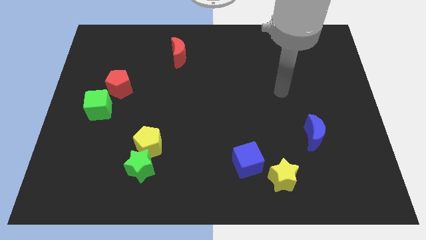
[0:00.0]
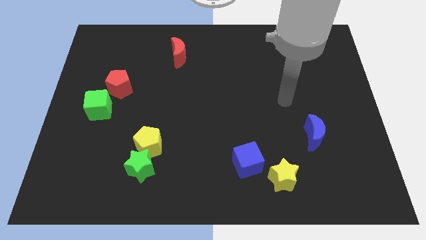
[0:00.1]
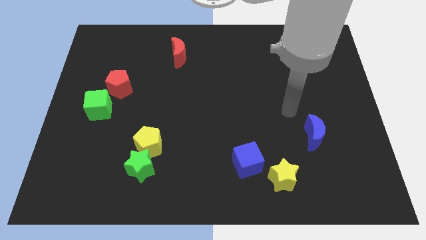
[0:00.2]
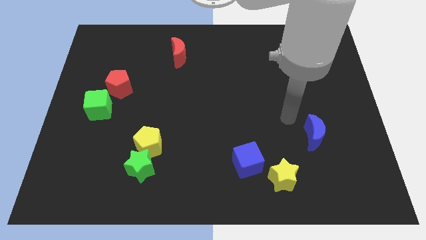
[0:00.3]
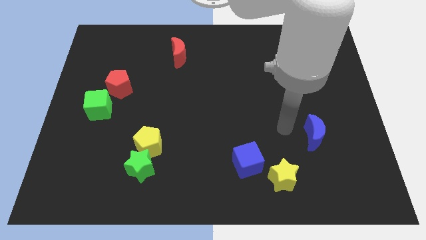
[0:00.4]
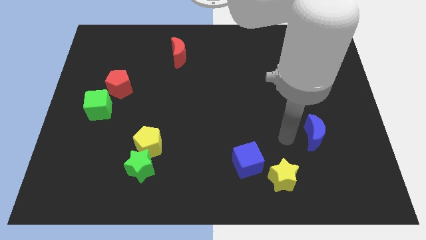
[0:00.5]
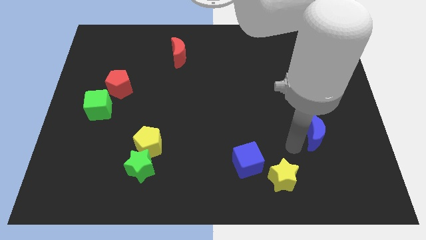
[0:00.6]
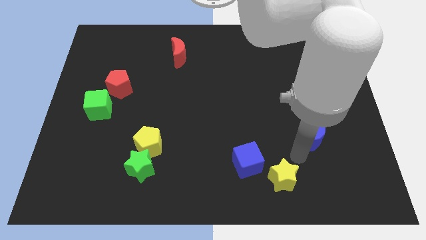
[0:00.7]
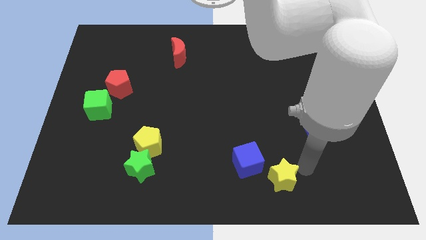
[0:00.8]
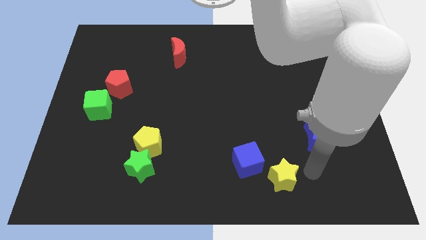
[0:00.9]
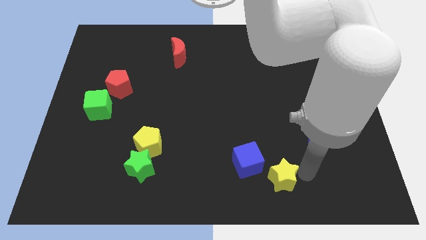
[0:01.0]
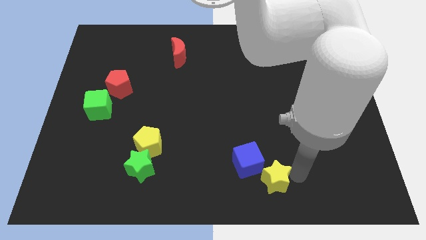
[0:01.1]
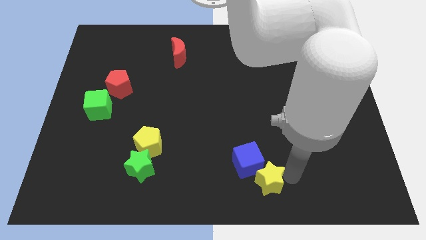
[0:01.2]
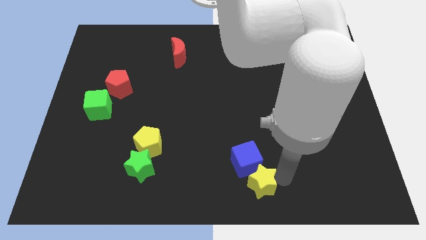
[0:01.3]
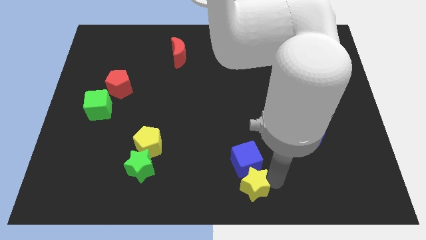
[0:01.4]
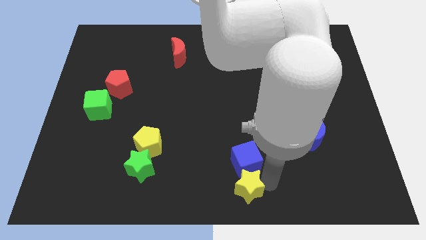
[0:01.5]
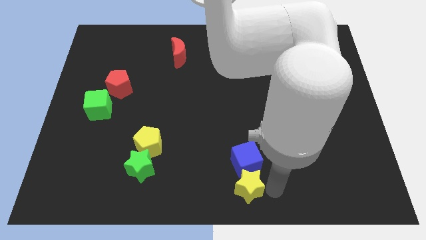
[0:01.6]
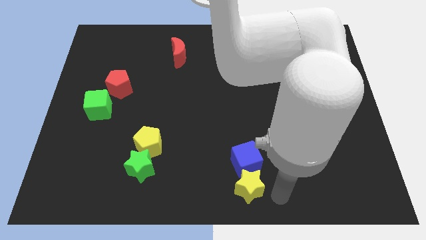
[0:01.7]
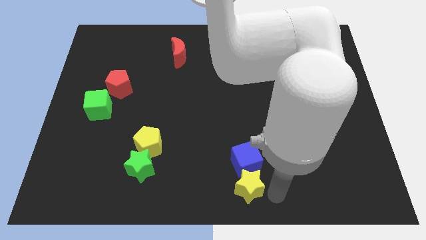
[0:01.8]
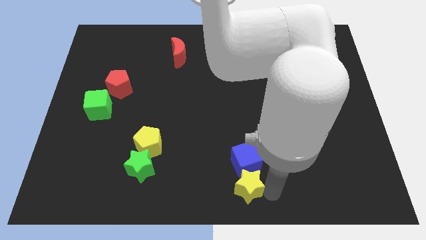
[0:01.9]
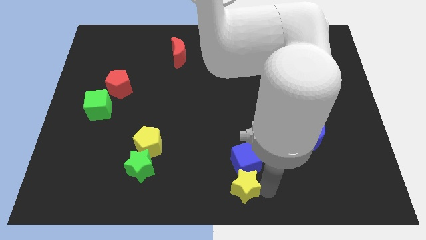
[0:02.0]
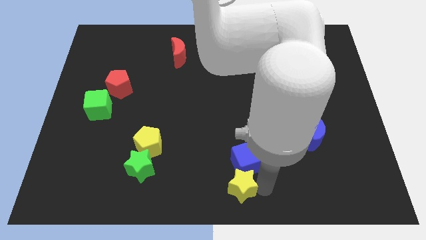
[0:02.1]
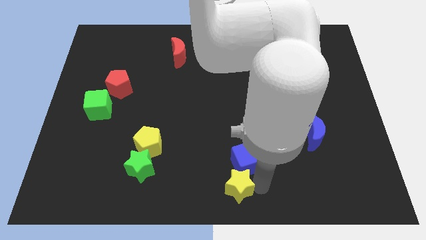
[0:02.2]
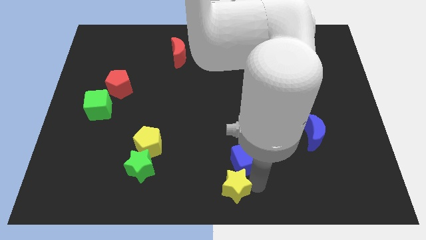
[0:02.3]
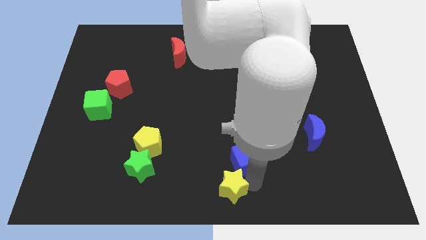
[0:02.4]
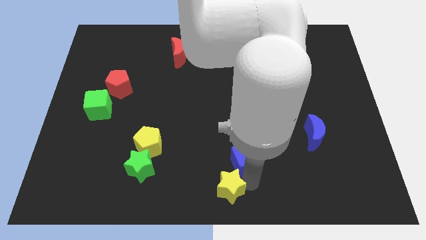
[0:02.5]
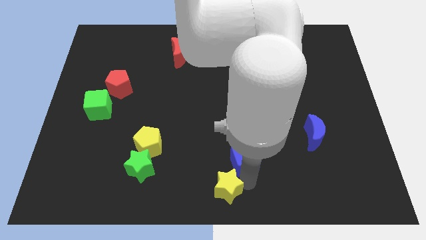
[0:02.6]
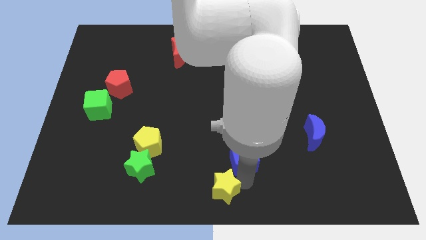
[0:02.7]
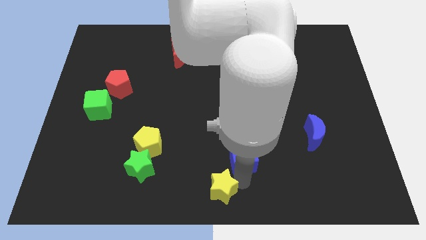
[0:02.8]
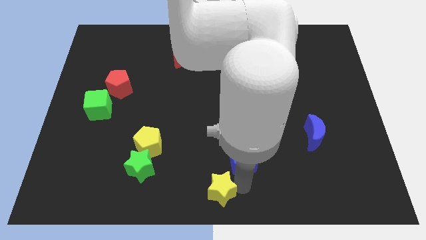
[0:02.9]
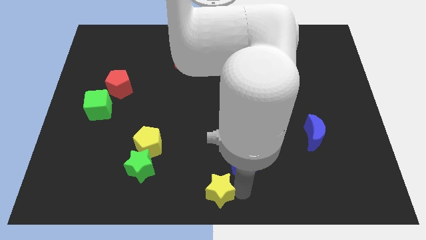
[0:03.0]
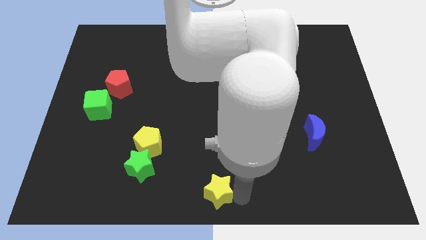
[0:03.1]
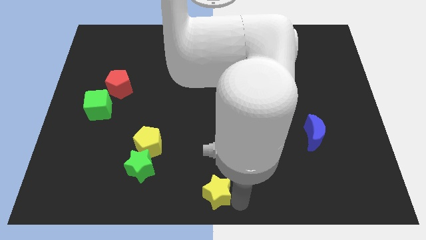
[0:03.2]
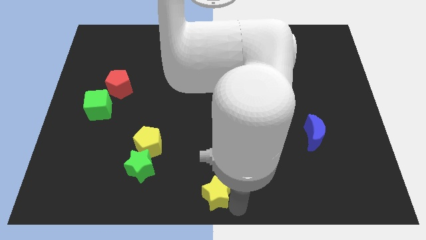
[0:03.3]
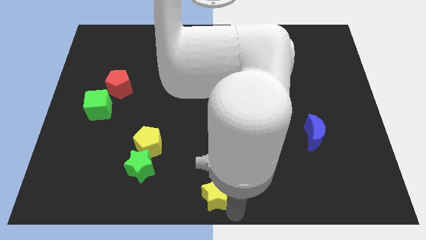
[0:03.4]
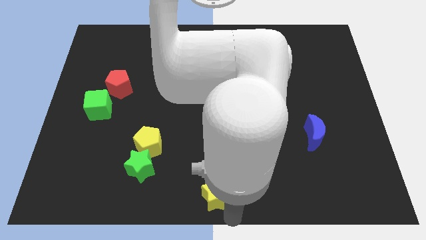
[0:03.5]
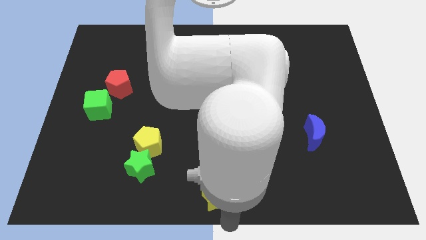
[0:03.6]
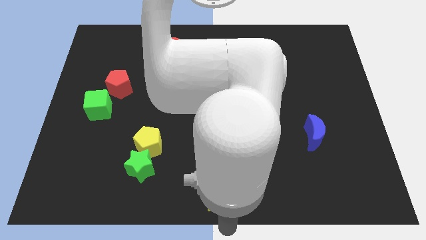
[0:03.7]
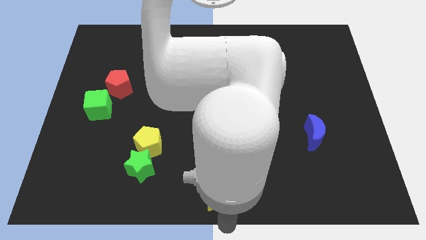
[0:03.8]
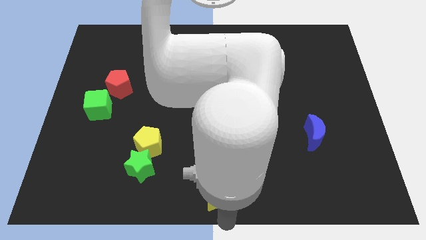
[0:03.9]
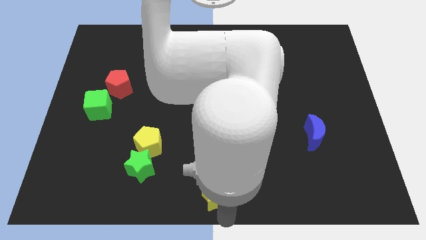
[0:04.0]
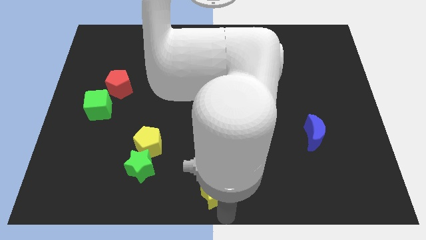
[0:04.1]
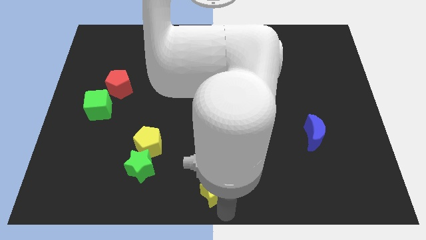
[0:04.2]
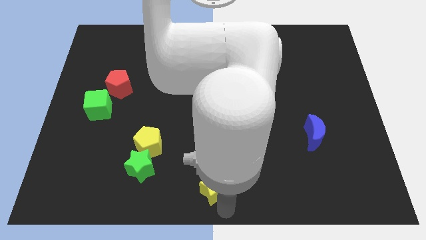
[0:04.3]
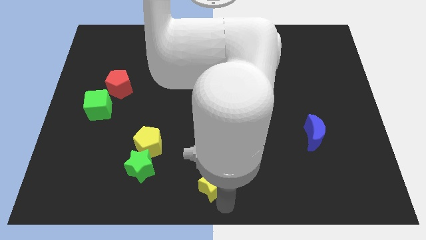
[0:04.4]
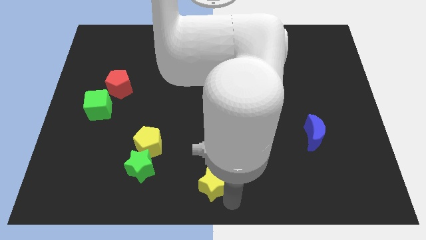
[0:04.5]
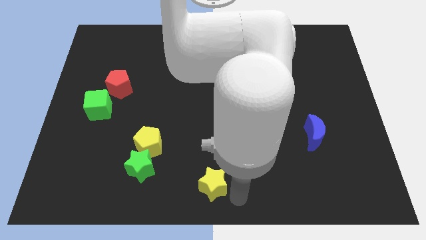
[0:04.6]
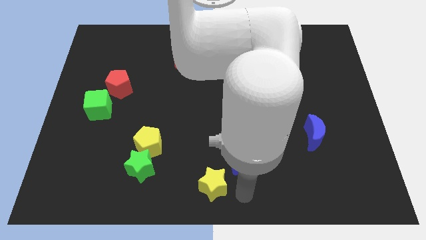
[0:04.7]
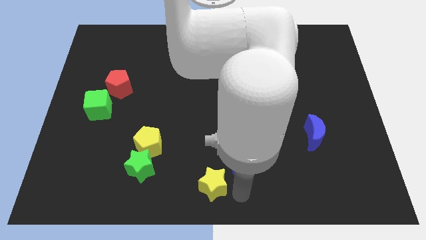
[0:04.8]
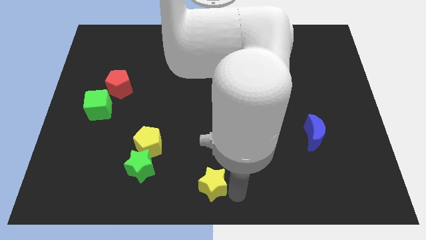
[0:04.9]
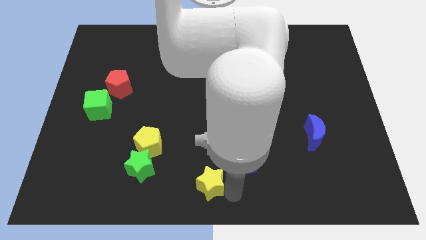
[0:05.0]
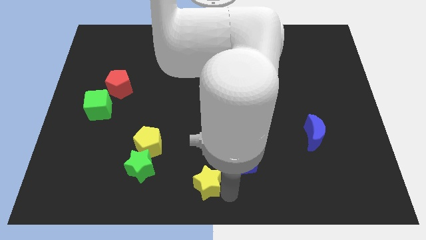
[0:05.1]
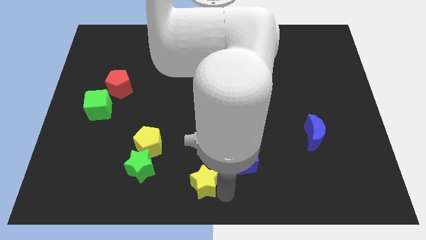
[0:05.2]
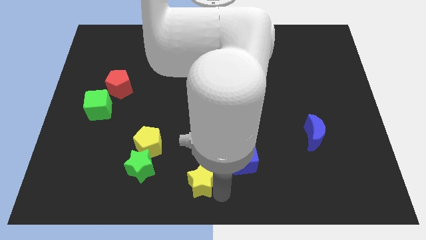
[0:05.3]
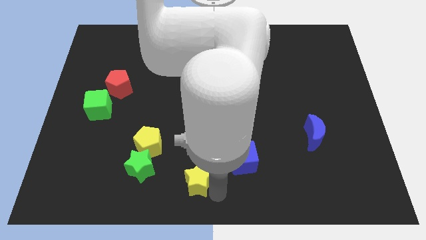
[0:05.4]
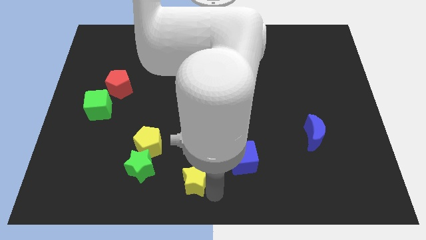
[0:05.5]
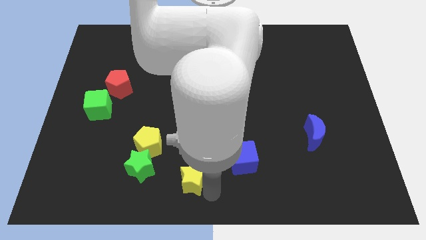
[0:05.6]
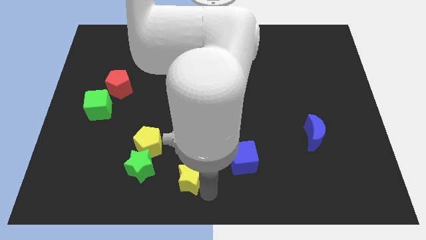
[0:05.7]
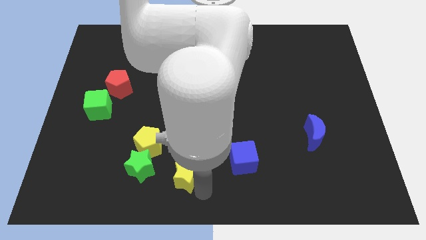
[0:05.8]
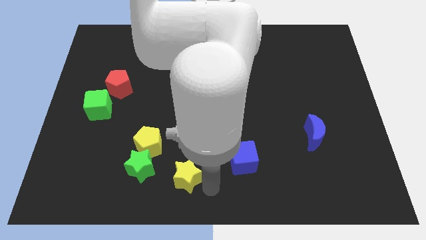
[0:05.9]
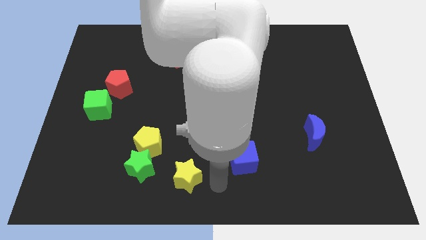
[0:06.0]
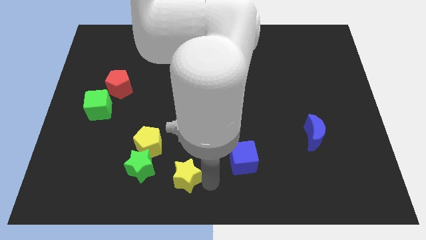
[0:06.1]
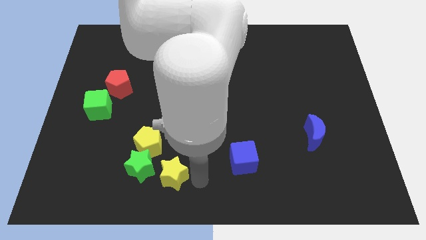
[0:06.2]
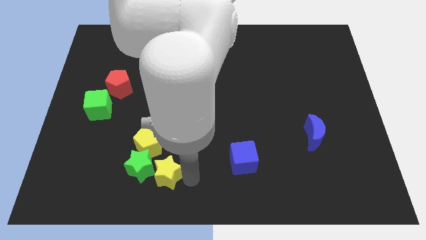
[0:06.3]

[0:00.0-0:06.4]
push the yellow star towards the green star

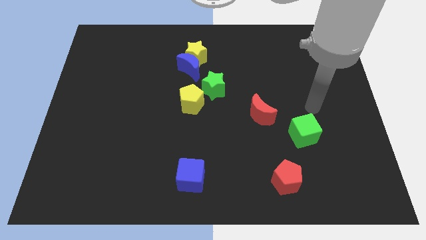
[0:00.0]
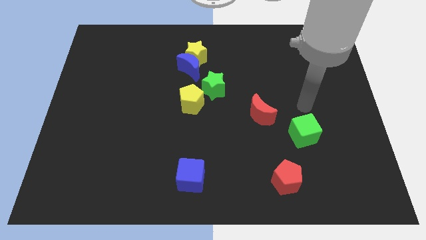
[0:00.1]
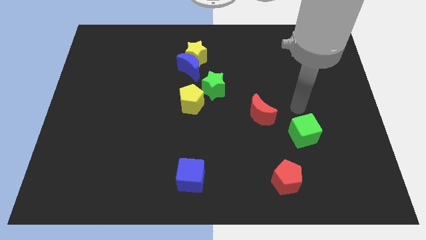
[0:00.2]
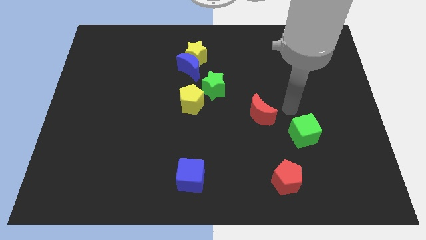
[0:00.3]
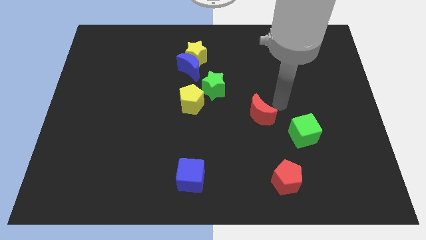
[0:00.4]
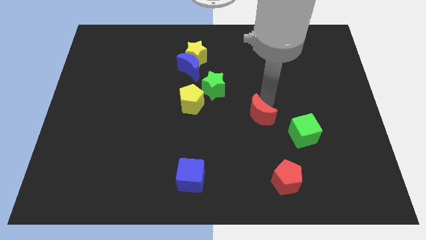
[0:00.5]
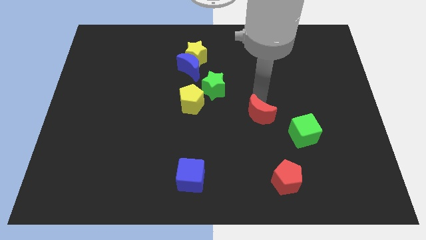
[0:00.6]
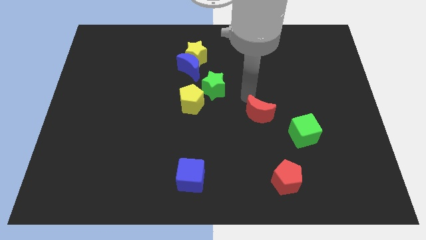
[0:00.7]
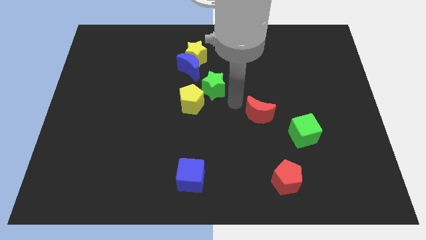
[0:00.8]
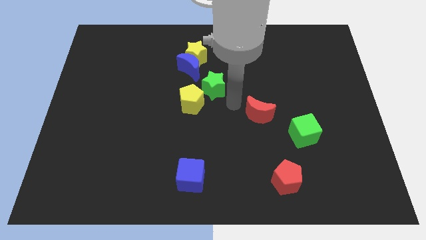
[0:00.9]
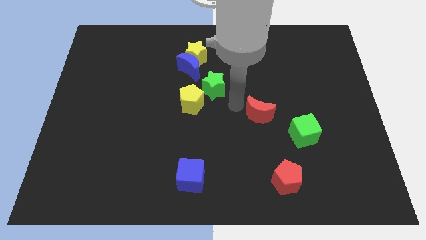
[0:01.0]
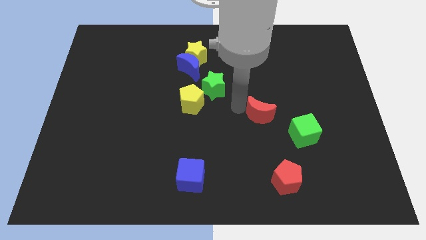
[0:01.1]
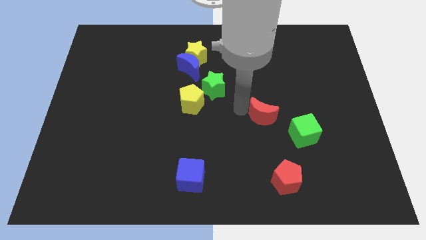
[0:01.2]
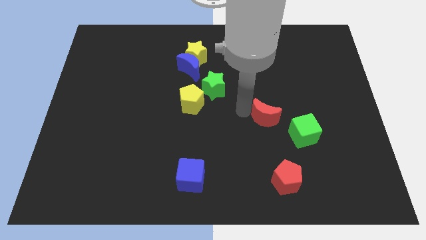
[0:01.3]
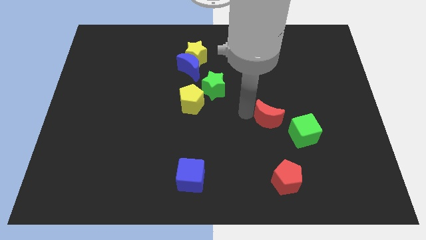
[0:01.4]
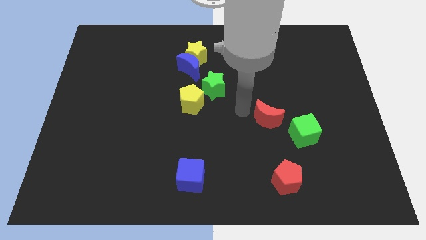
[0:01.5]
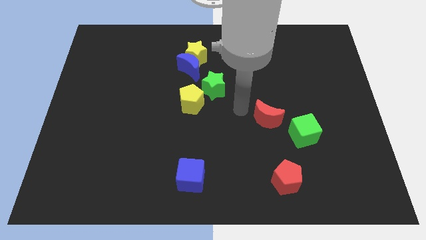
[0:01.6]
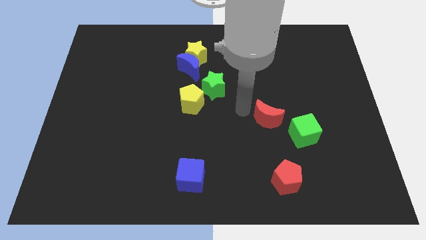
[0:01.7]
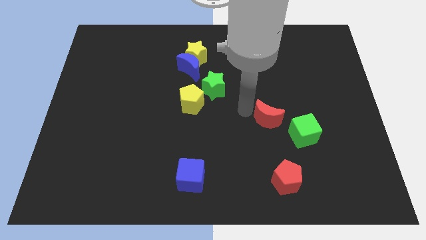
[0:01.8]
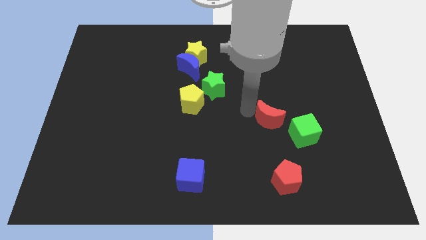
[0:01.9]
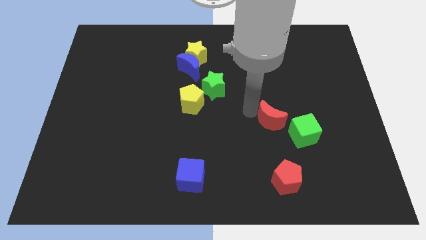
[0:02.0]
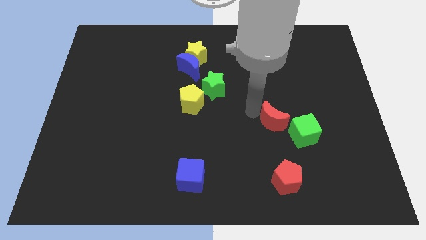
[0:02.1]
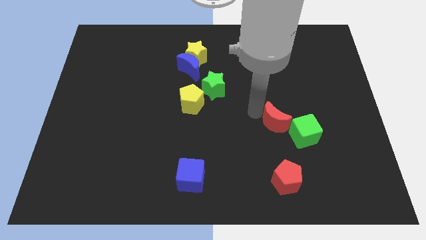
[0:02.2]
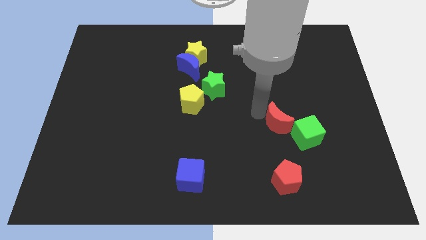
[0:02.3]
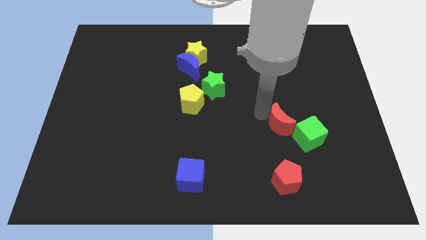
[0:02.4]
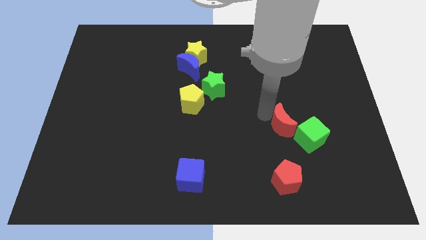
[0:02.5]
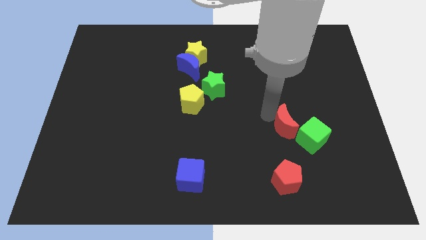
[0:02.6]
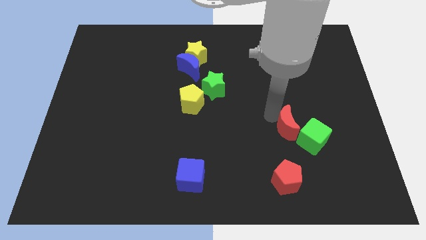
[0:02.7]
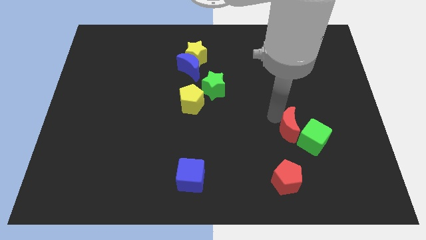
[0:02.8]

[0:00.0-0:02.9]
put the red moon towards the green cube
